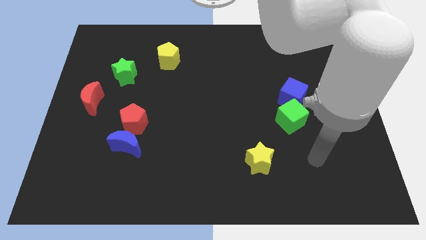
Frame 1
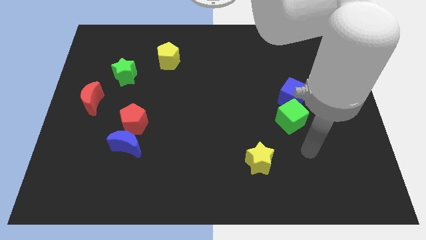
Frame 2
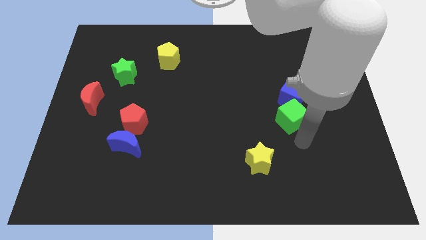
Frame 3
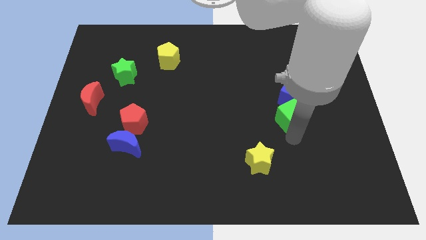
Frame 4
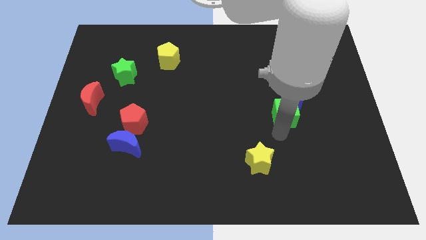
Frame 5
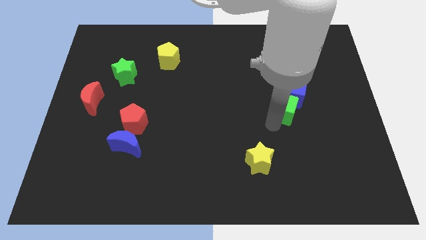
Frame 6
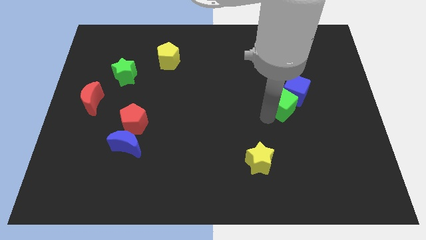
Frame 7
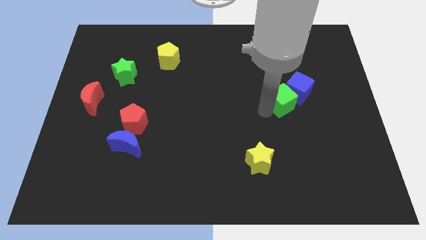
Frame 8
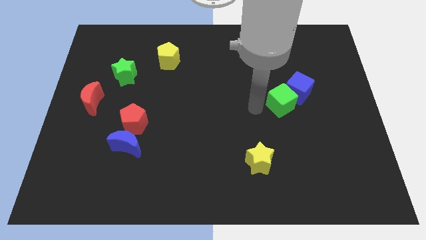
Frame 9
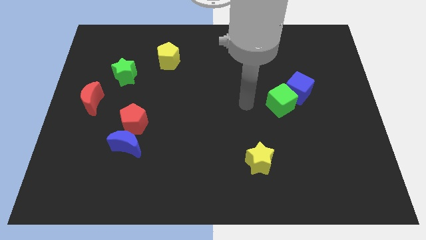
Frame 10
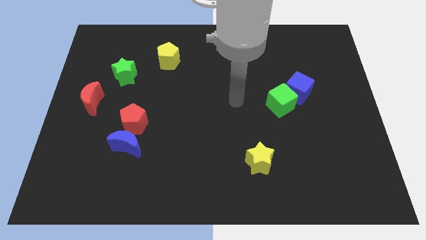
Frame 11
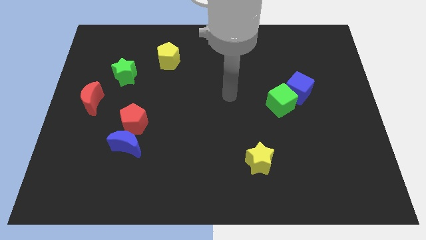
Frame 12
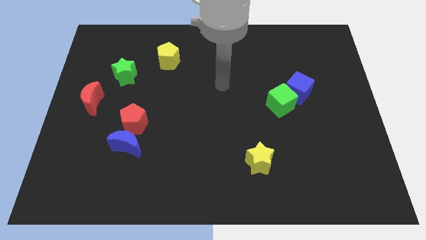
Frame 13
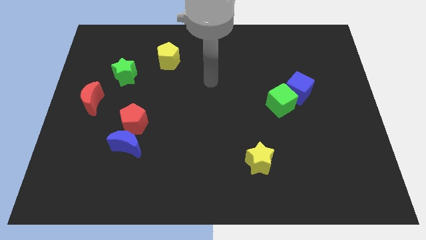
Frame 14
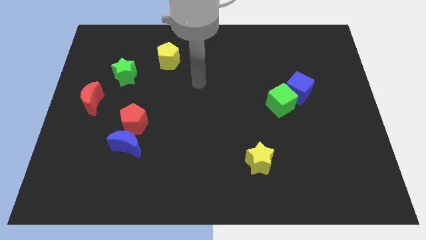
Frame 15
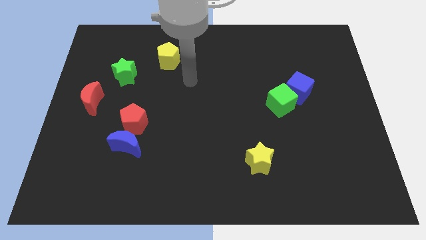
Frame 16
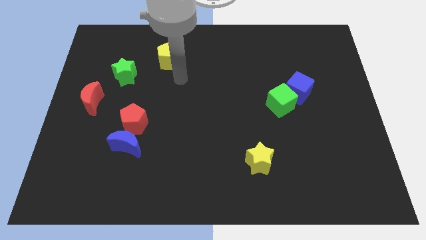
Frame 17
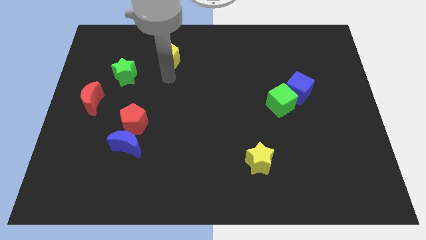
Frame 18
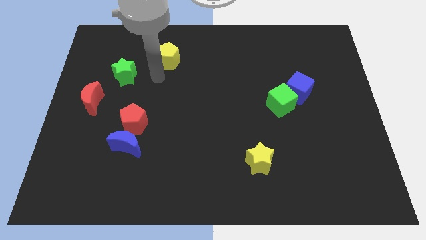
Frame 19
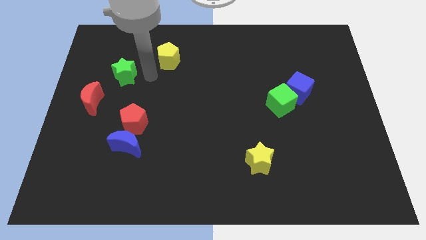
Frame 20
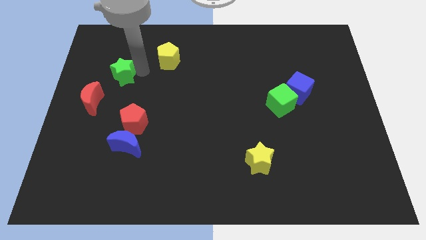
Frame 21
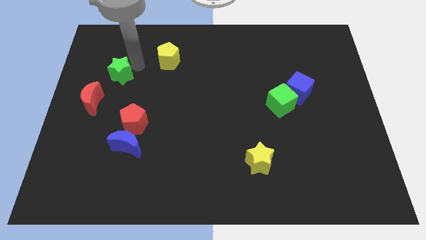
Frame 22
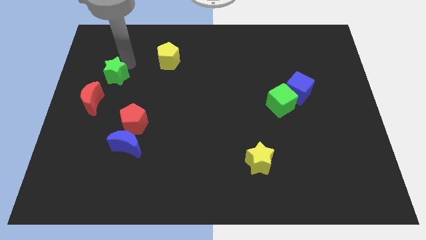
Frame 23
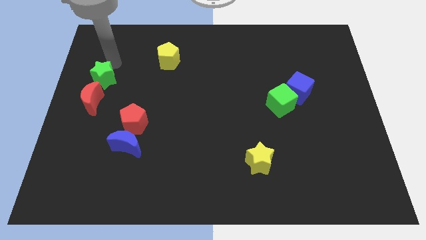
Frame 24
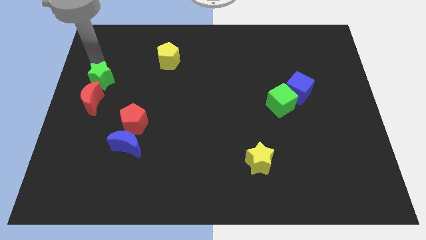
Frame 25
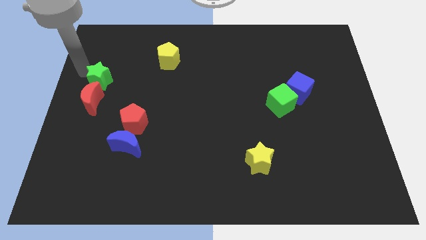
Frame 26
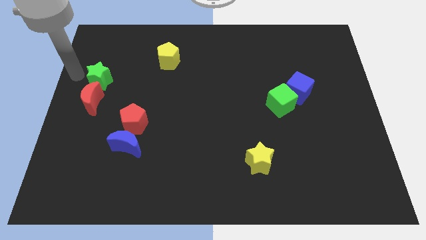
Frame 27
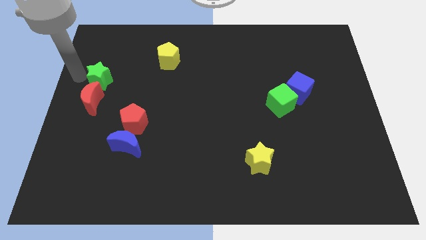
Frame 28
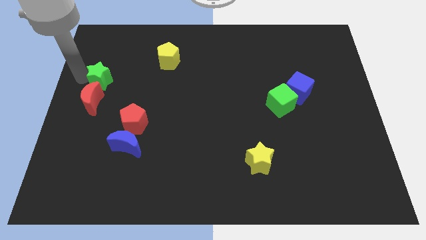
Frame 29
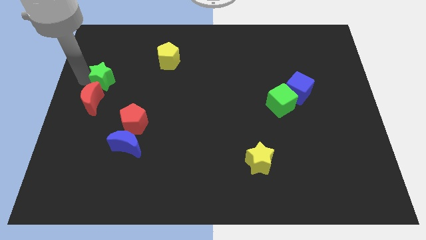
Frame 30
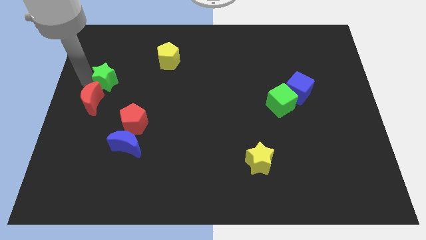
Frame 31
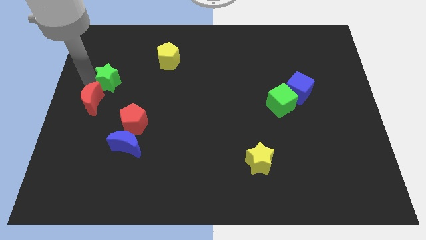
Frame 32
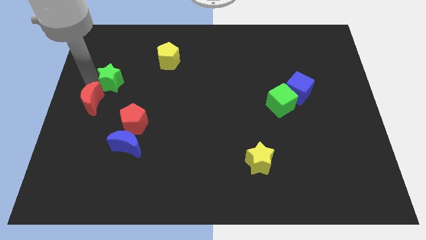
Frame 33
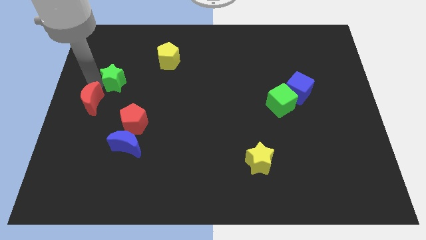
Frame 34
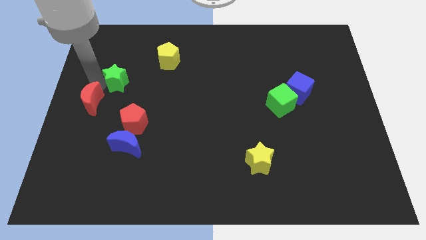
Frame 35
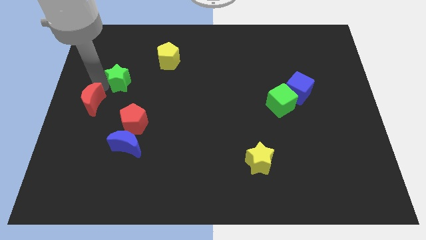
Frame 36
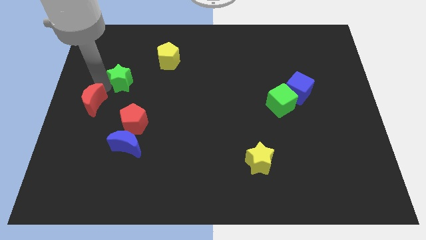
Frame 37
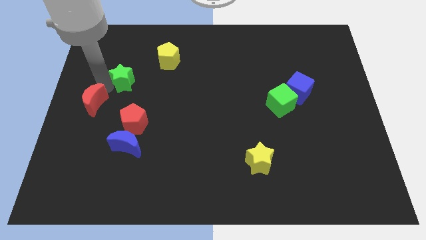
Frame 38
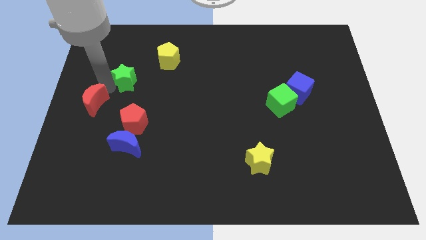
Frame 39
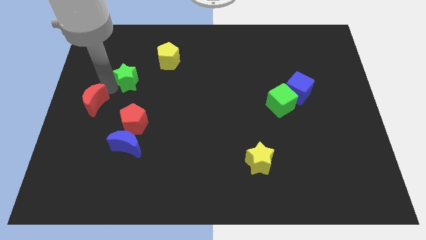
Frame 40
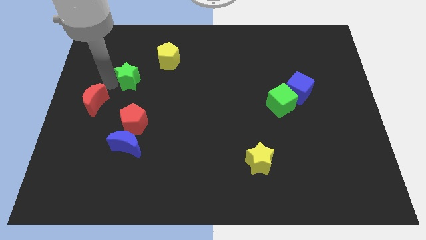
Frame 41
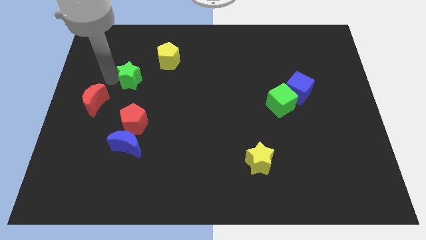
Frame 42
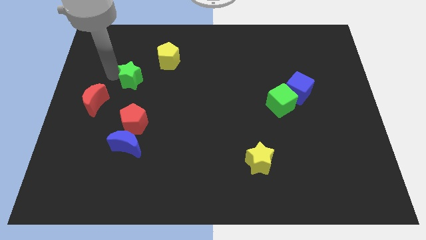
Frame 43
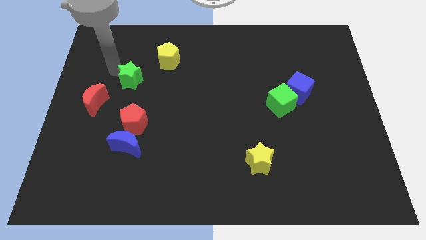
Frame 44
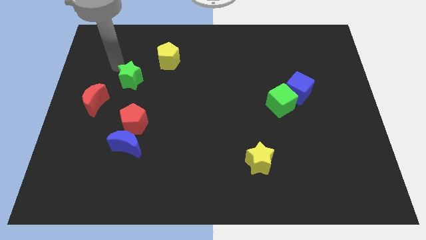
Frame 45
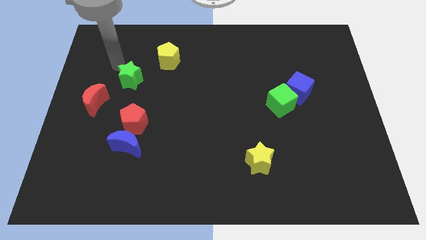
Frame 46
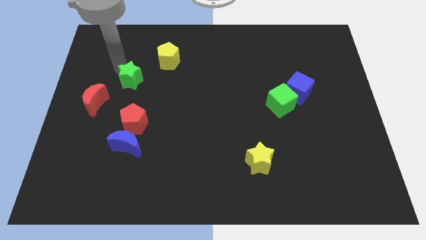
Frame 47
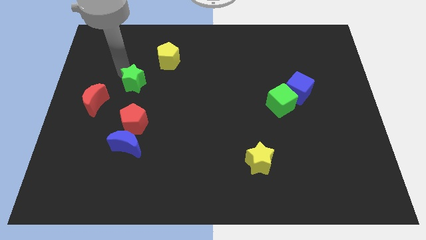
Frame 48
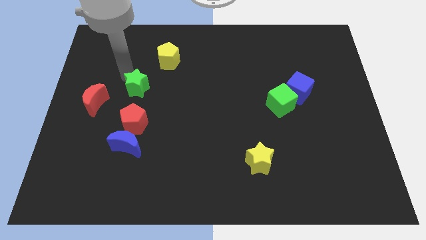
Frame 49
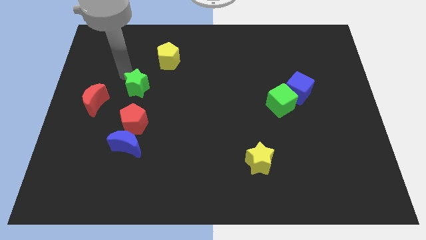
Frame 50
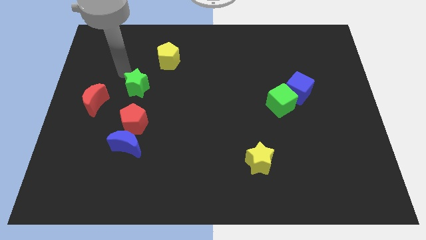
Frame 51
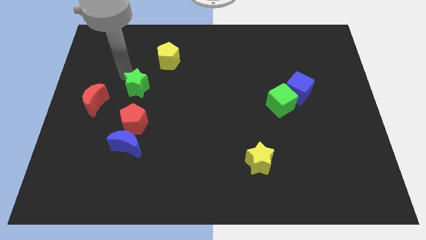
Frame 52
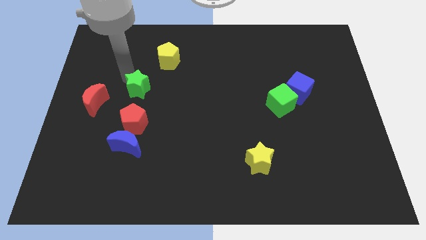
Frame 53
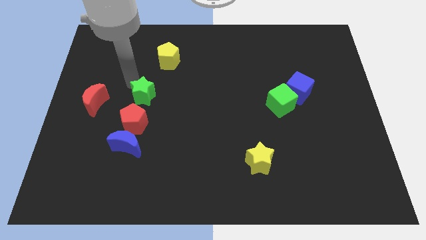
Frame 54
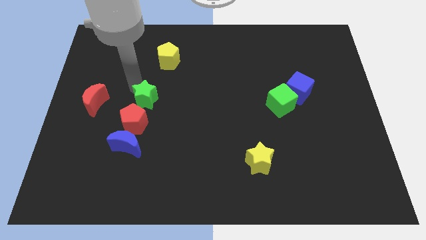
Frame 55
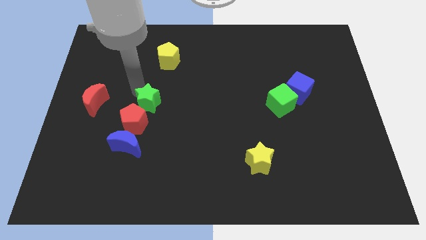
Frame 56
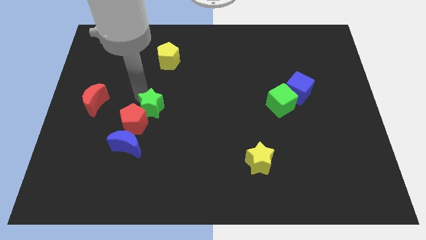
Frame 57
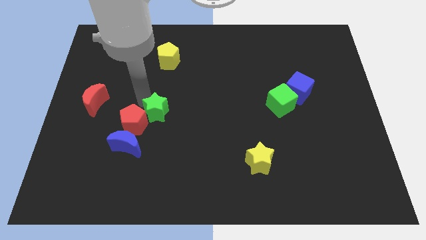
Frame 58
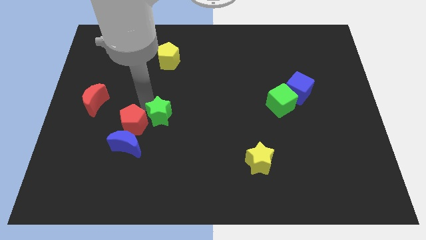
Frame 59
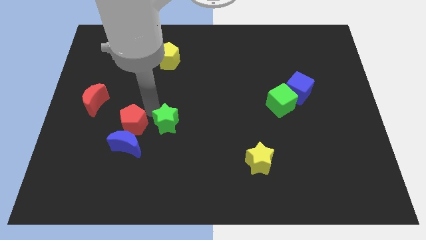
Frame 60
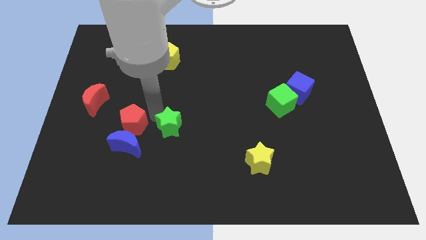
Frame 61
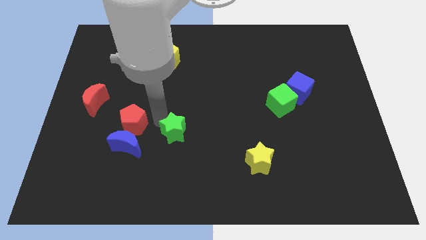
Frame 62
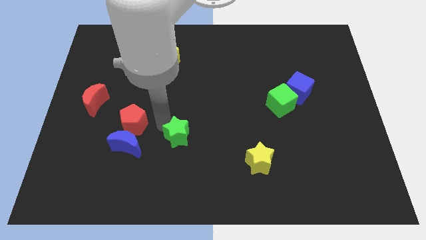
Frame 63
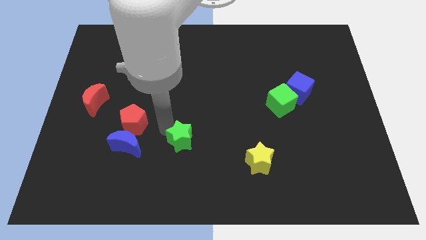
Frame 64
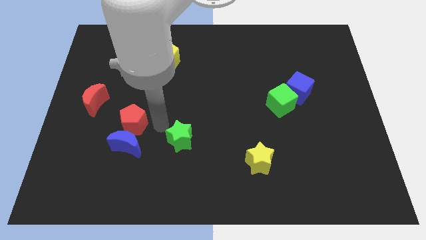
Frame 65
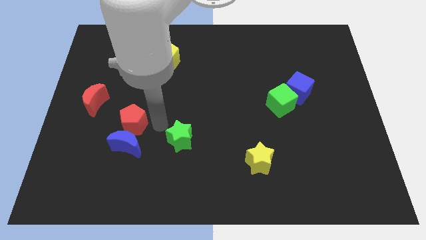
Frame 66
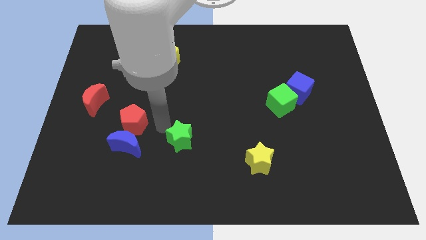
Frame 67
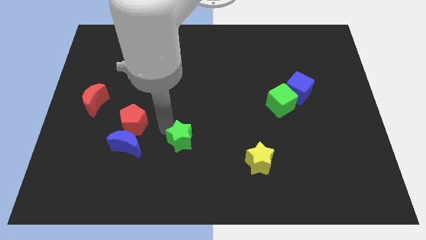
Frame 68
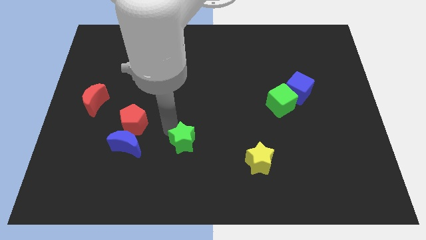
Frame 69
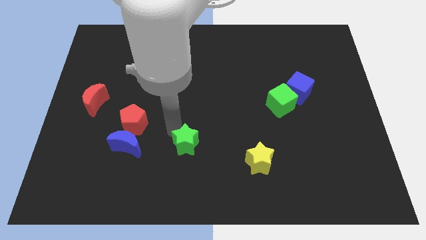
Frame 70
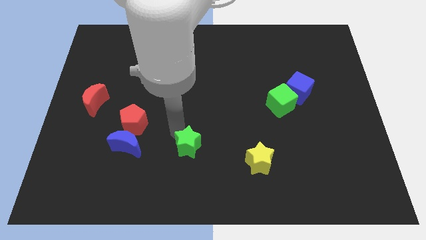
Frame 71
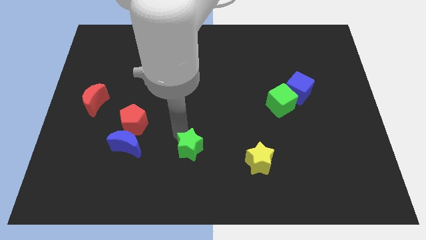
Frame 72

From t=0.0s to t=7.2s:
push the green star just left of the yellow star
